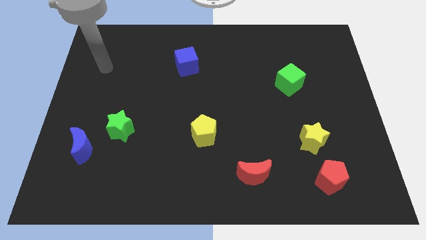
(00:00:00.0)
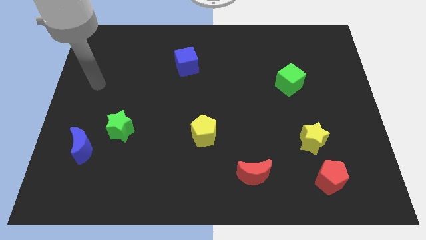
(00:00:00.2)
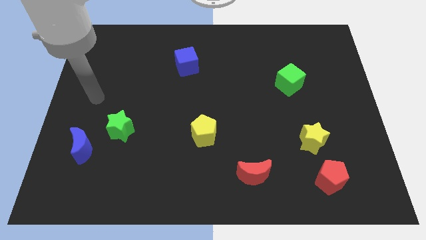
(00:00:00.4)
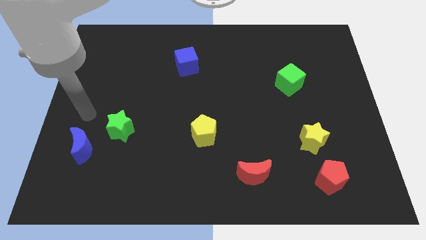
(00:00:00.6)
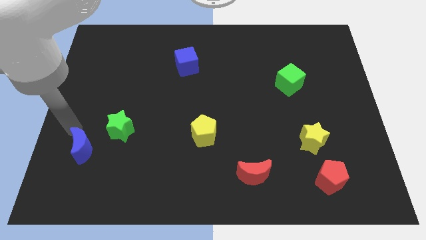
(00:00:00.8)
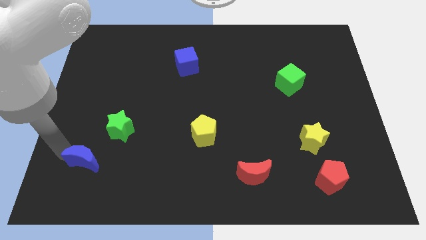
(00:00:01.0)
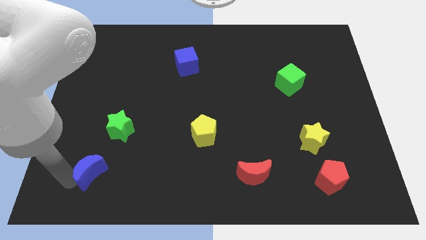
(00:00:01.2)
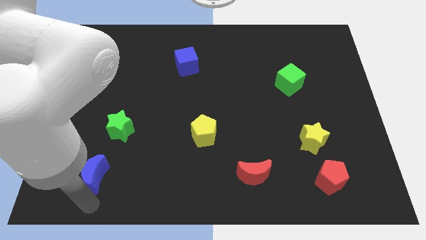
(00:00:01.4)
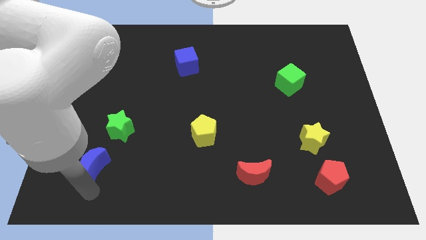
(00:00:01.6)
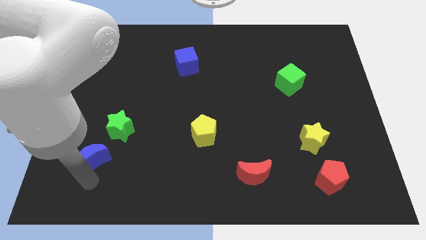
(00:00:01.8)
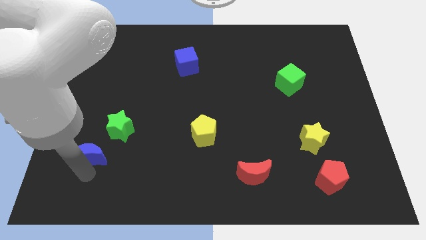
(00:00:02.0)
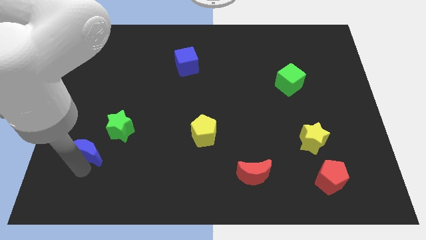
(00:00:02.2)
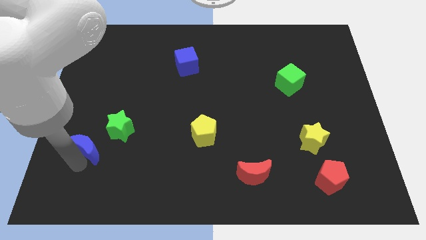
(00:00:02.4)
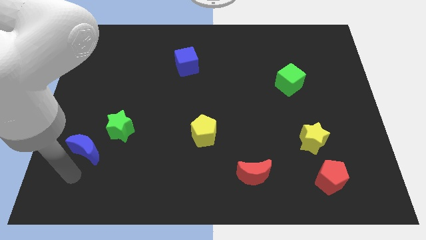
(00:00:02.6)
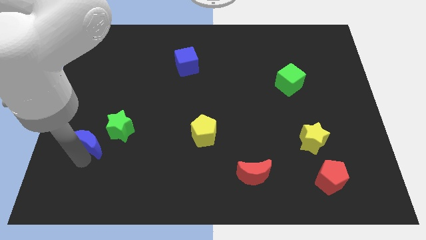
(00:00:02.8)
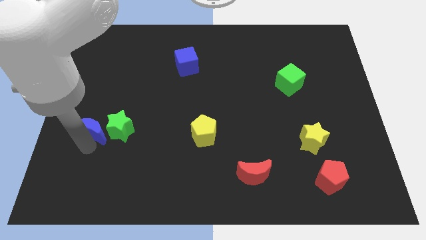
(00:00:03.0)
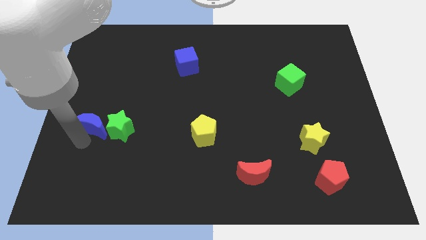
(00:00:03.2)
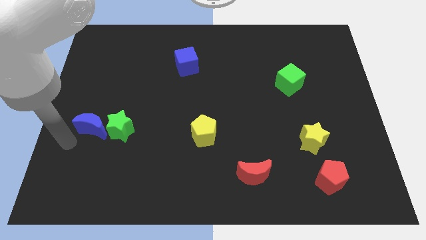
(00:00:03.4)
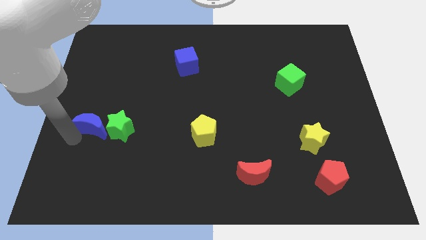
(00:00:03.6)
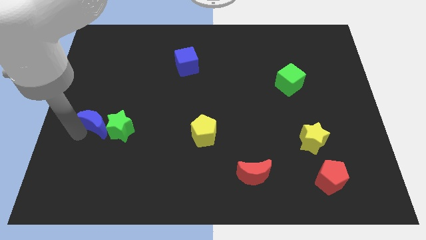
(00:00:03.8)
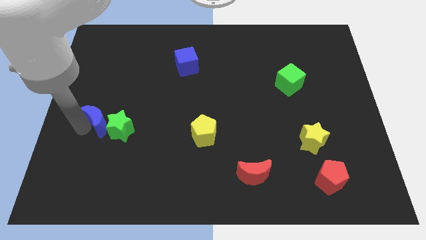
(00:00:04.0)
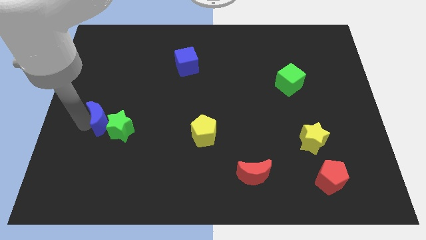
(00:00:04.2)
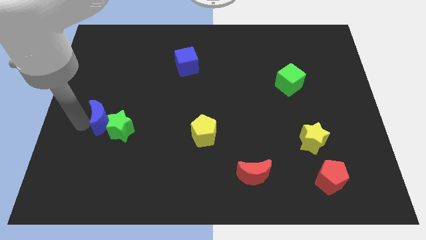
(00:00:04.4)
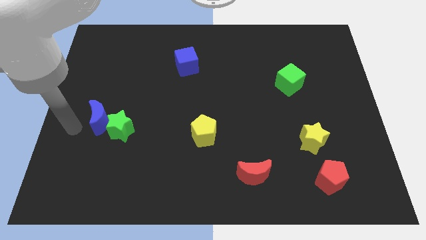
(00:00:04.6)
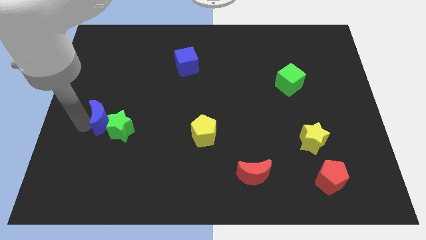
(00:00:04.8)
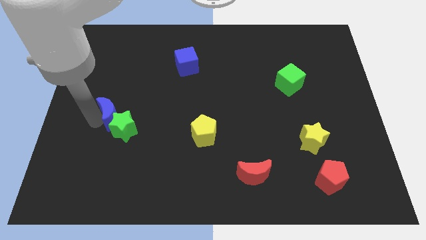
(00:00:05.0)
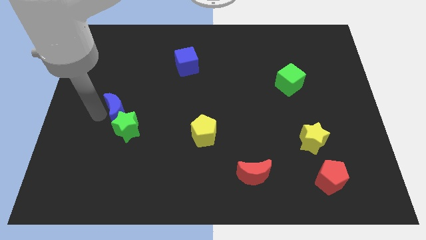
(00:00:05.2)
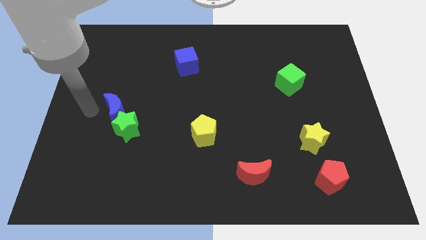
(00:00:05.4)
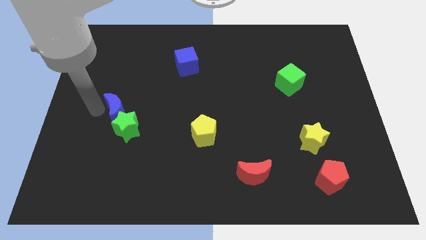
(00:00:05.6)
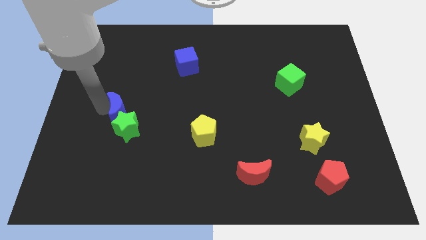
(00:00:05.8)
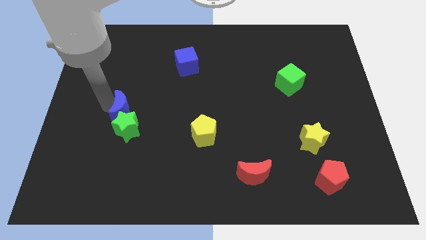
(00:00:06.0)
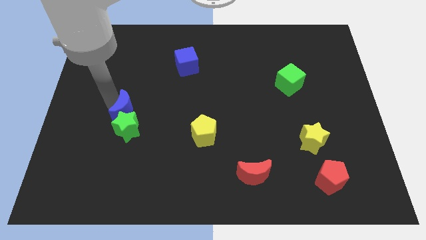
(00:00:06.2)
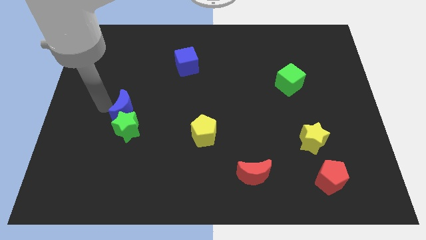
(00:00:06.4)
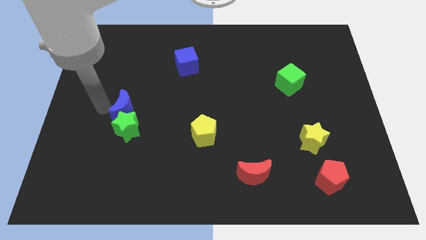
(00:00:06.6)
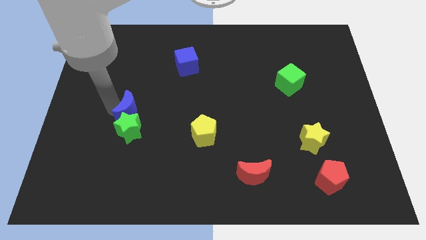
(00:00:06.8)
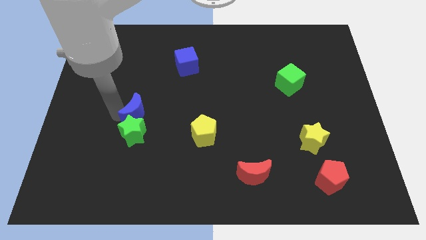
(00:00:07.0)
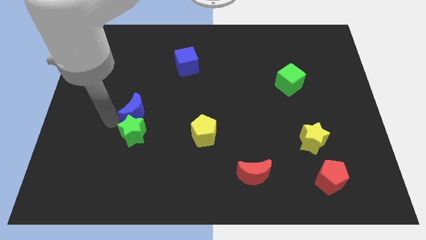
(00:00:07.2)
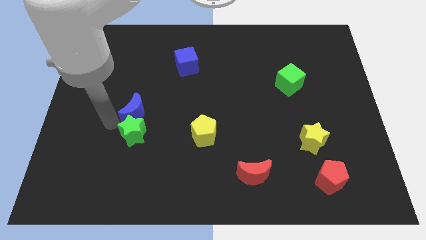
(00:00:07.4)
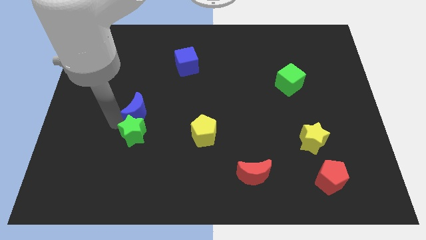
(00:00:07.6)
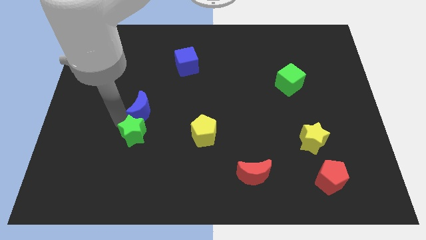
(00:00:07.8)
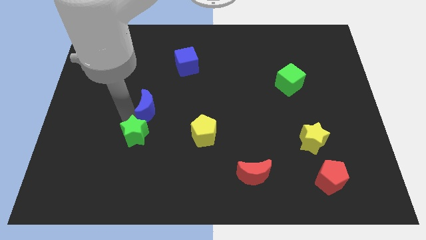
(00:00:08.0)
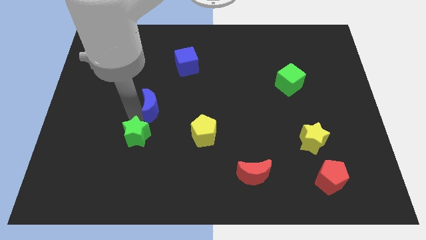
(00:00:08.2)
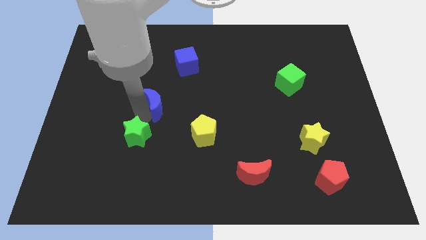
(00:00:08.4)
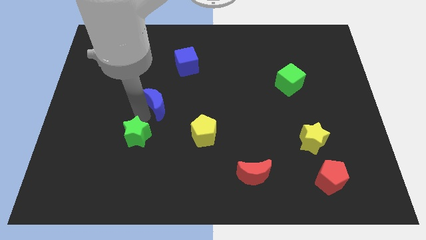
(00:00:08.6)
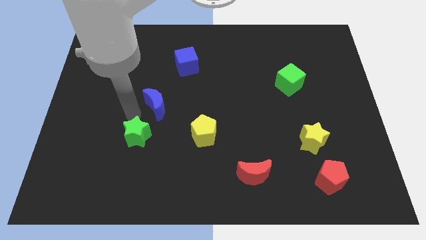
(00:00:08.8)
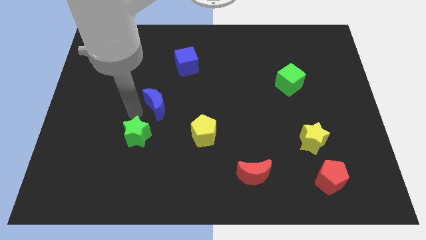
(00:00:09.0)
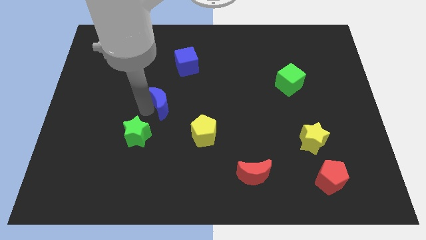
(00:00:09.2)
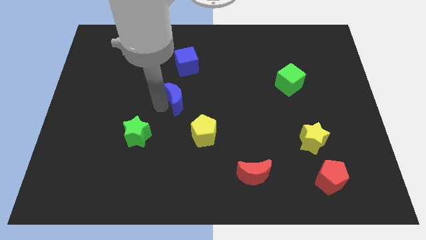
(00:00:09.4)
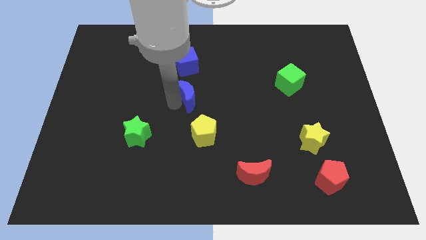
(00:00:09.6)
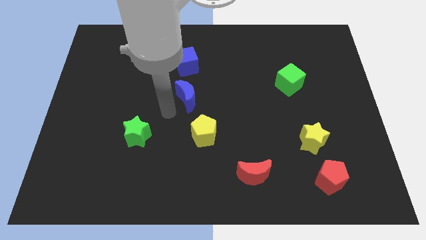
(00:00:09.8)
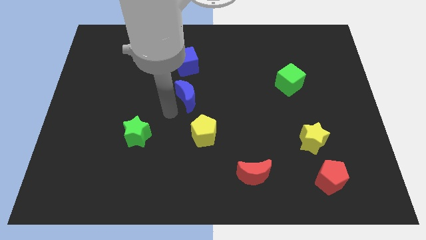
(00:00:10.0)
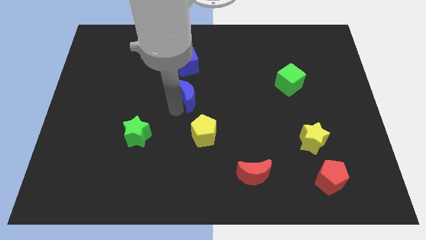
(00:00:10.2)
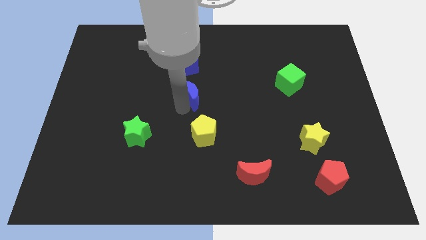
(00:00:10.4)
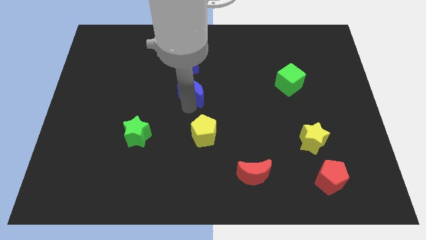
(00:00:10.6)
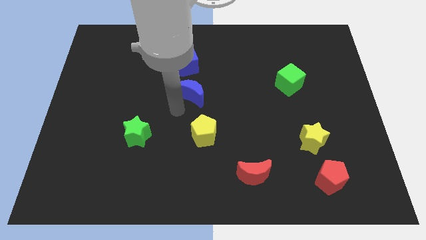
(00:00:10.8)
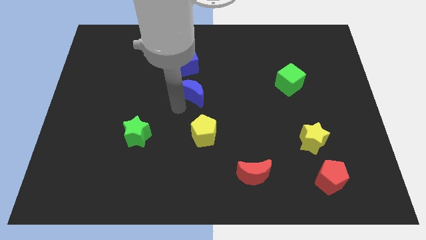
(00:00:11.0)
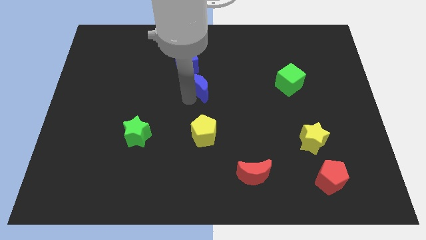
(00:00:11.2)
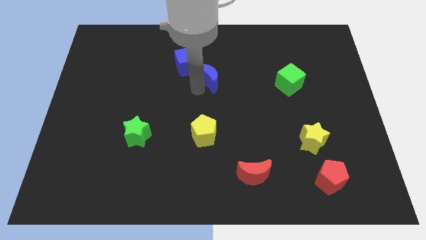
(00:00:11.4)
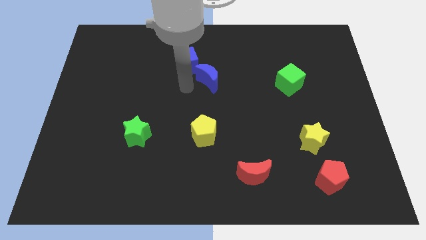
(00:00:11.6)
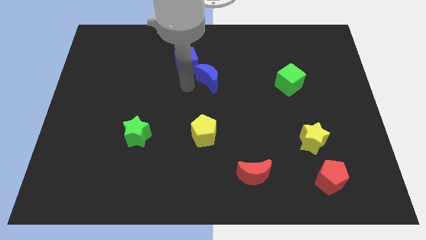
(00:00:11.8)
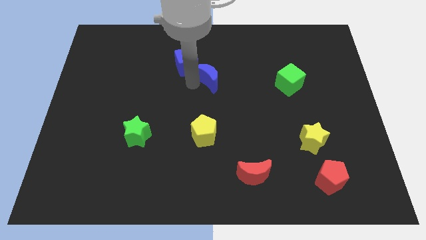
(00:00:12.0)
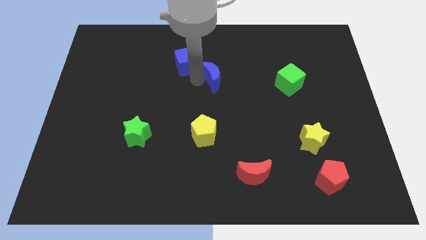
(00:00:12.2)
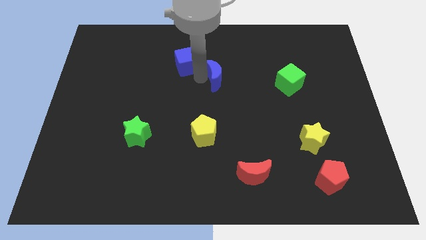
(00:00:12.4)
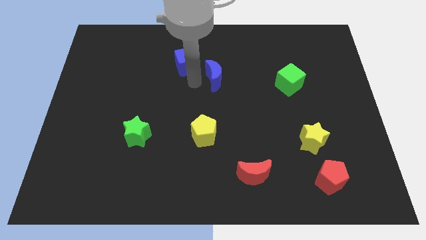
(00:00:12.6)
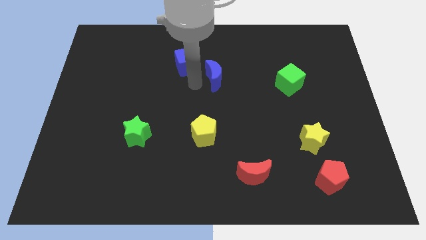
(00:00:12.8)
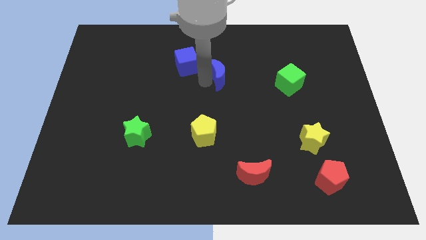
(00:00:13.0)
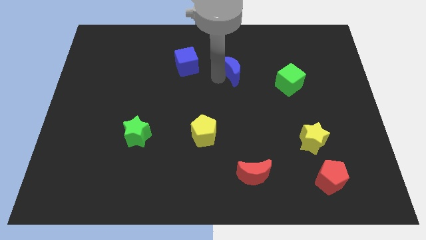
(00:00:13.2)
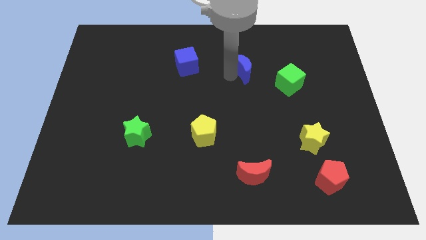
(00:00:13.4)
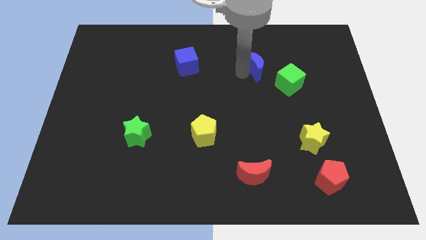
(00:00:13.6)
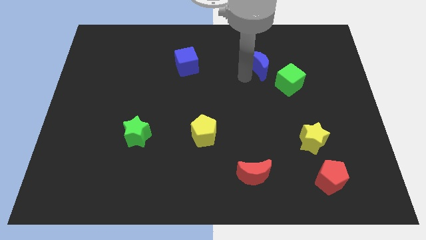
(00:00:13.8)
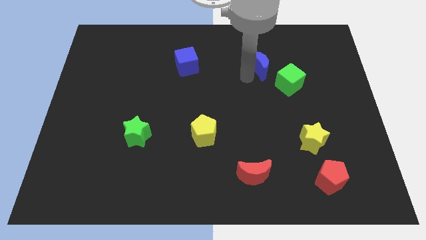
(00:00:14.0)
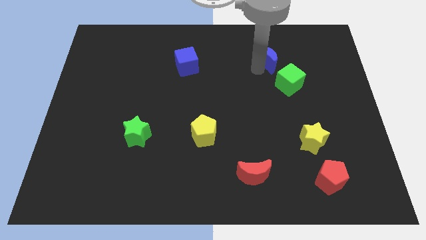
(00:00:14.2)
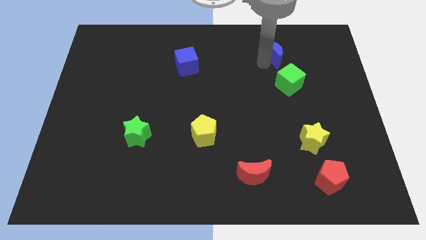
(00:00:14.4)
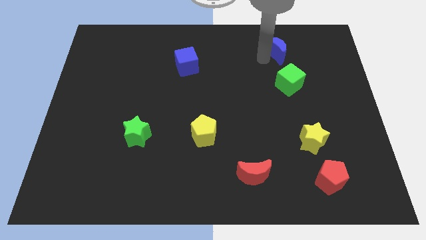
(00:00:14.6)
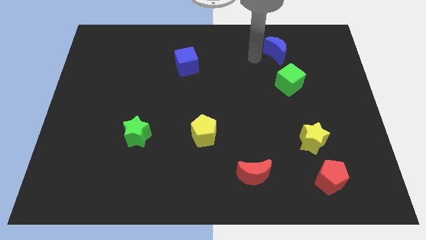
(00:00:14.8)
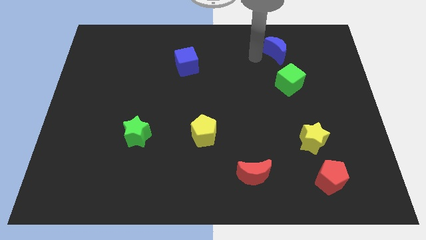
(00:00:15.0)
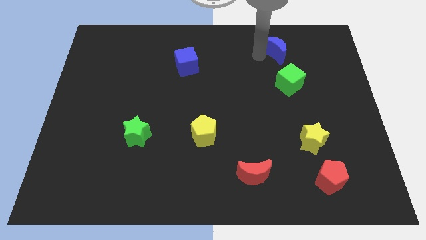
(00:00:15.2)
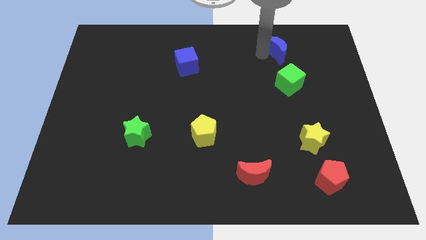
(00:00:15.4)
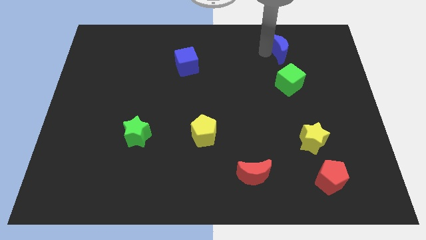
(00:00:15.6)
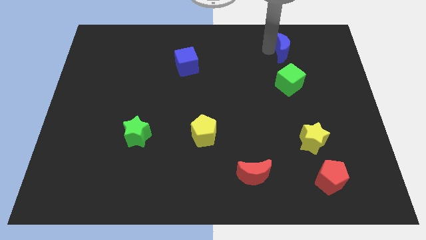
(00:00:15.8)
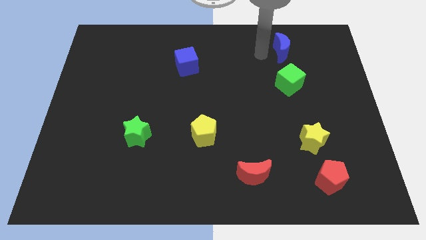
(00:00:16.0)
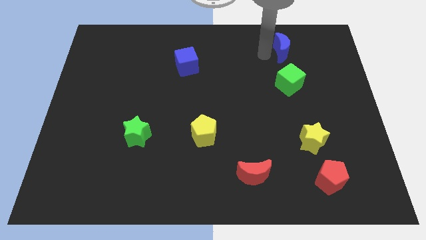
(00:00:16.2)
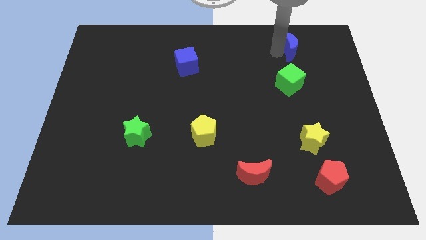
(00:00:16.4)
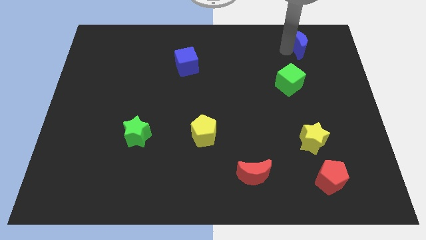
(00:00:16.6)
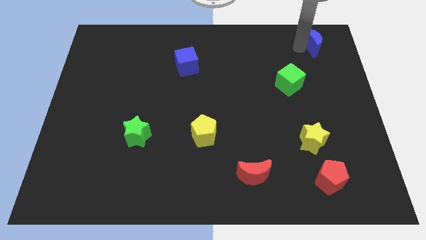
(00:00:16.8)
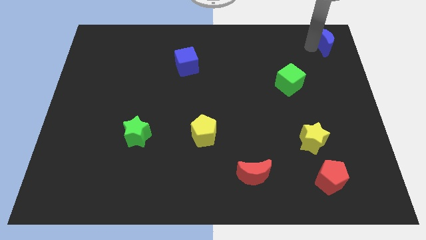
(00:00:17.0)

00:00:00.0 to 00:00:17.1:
move the blue moon to the top right corner
